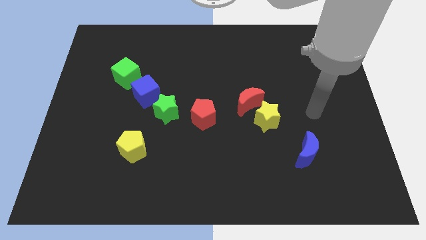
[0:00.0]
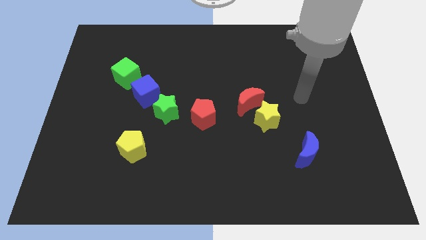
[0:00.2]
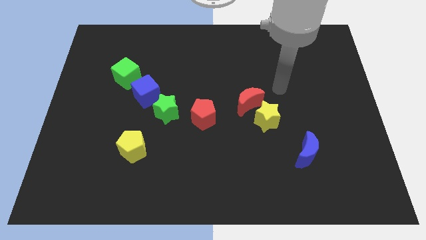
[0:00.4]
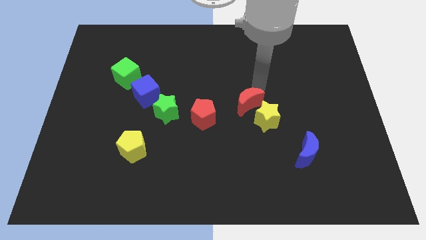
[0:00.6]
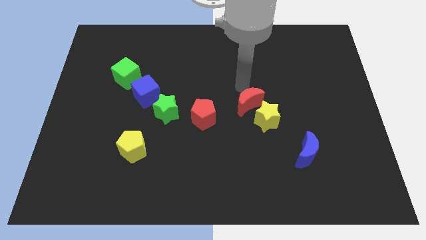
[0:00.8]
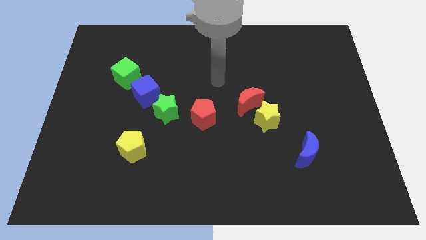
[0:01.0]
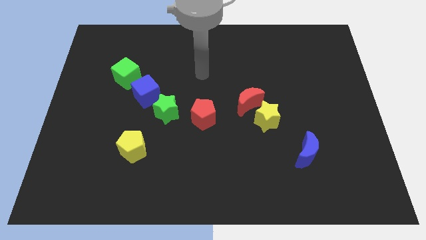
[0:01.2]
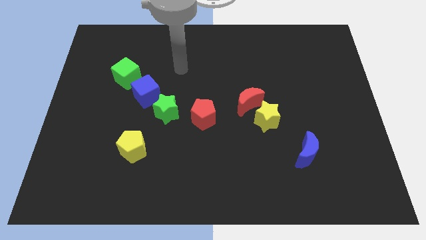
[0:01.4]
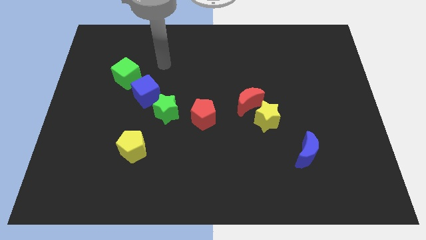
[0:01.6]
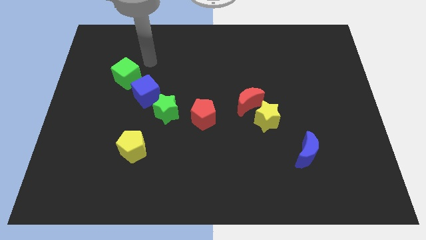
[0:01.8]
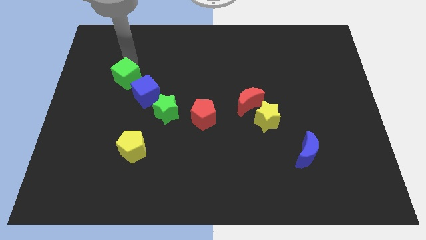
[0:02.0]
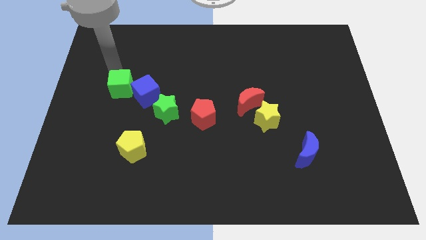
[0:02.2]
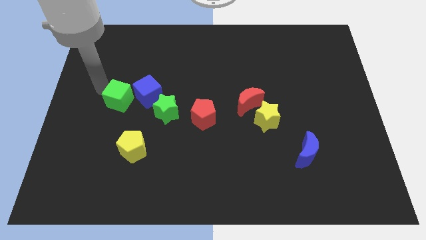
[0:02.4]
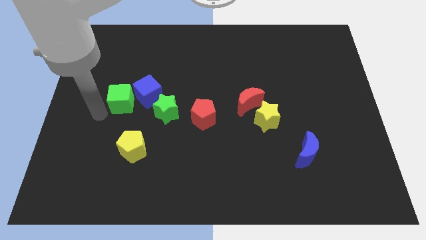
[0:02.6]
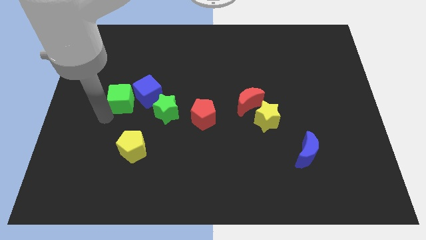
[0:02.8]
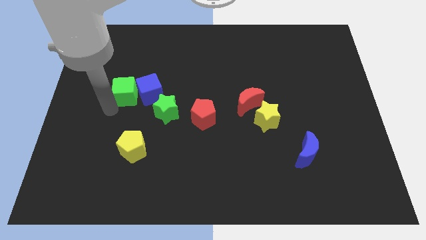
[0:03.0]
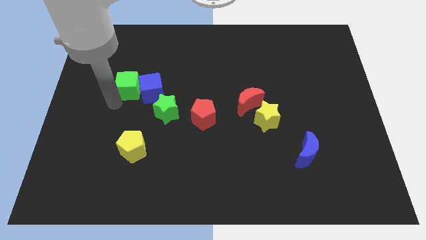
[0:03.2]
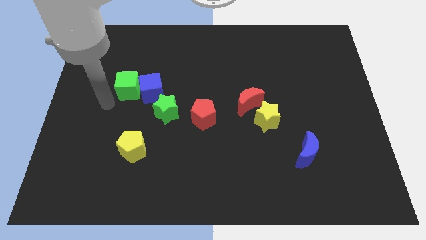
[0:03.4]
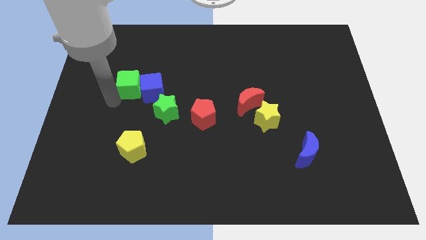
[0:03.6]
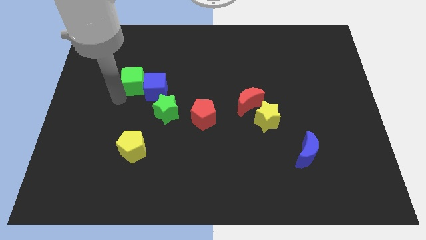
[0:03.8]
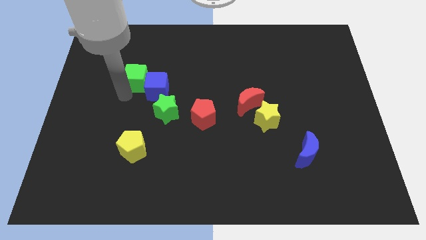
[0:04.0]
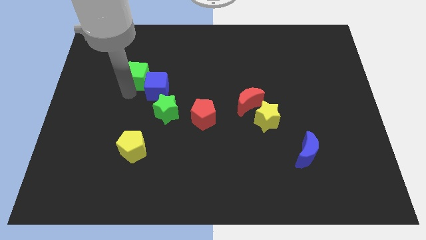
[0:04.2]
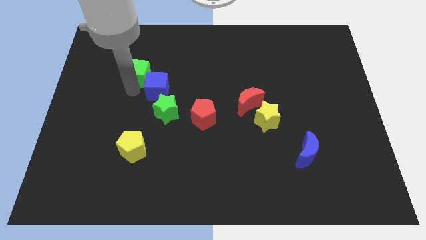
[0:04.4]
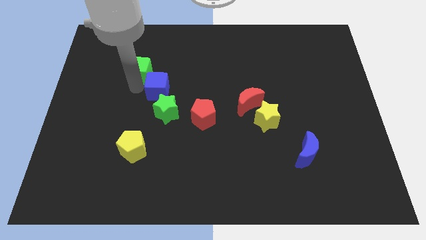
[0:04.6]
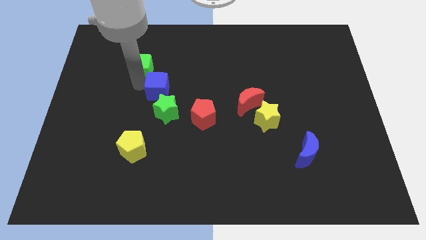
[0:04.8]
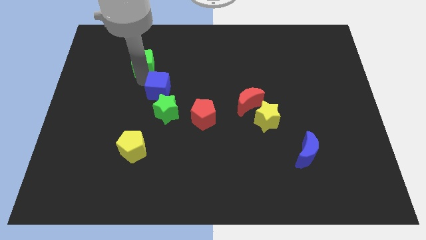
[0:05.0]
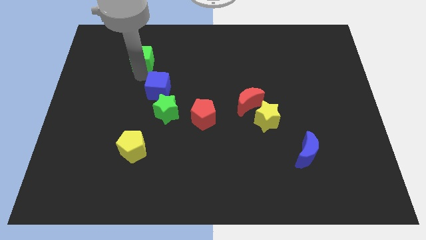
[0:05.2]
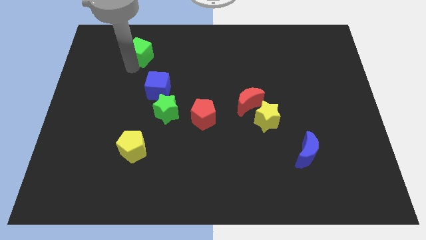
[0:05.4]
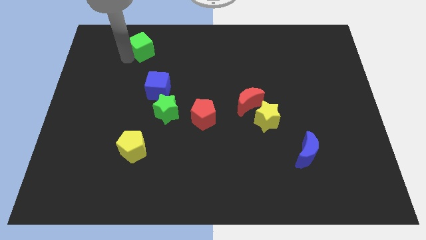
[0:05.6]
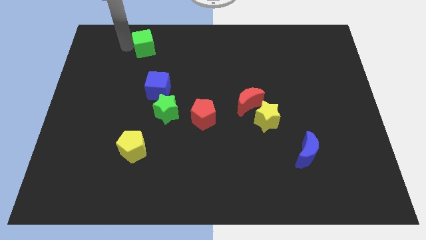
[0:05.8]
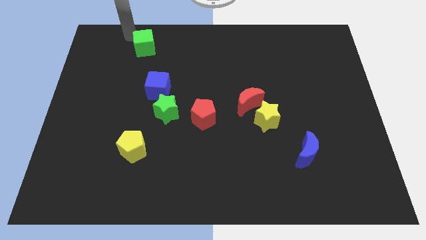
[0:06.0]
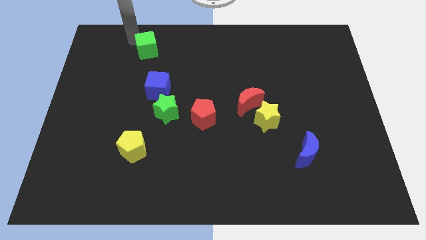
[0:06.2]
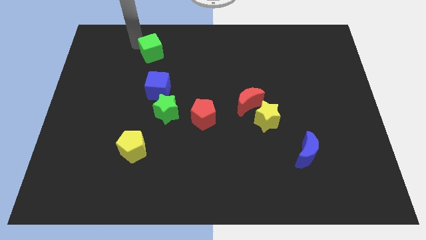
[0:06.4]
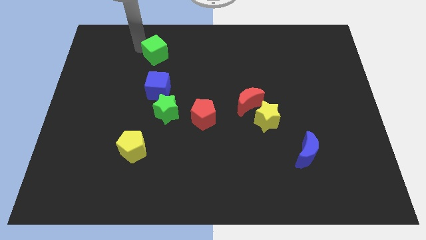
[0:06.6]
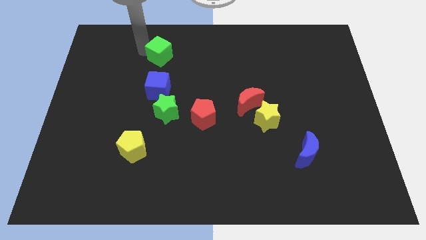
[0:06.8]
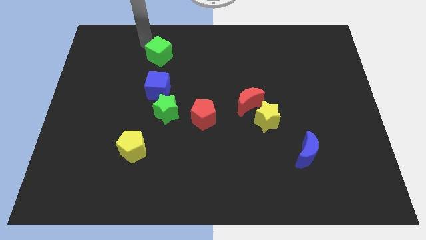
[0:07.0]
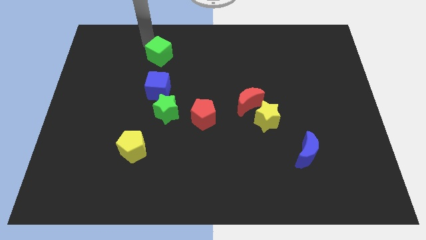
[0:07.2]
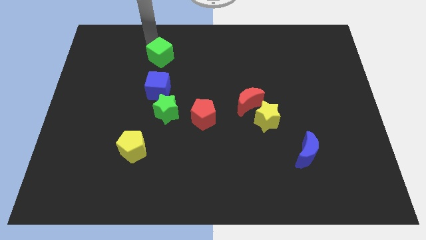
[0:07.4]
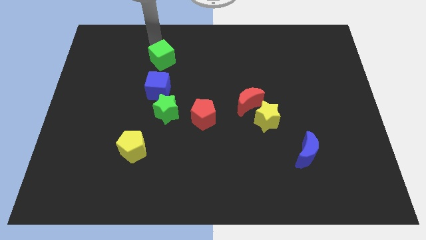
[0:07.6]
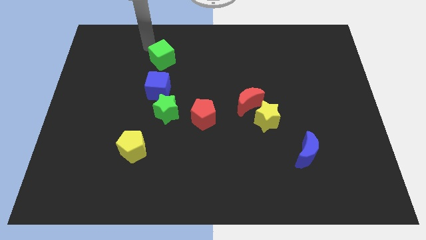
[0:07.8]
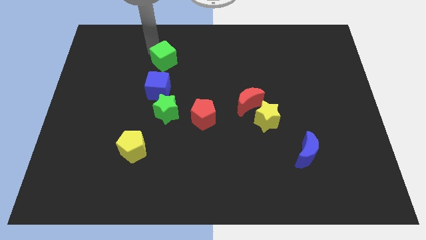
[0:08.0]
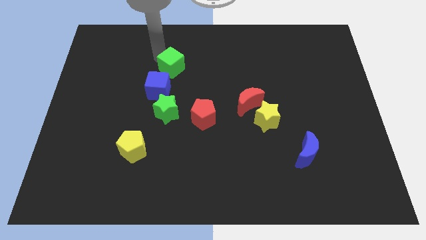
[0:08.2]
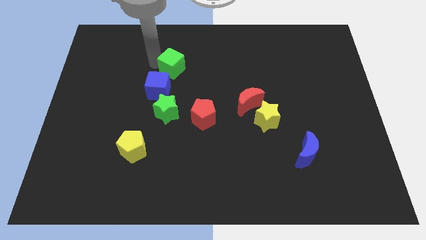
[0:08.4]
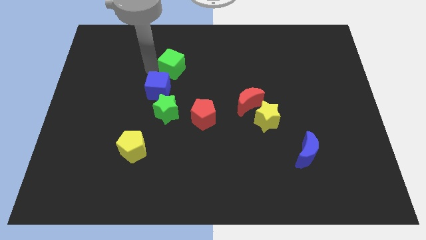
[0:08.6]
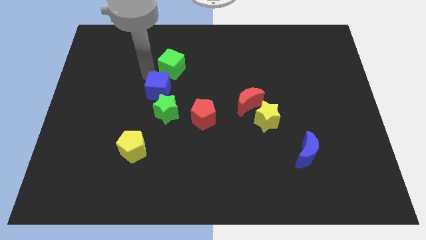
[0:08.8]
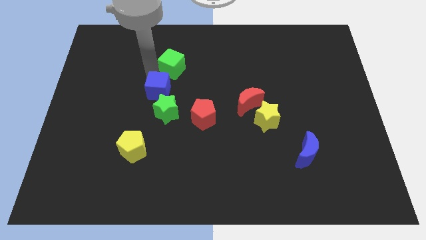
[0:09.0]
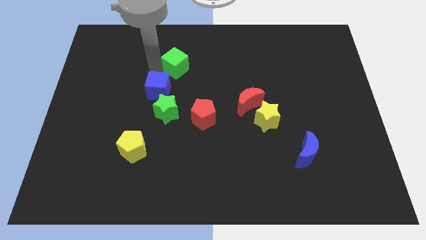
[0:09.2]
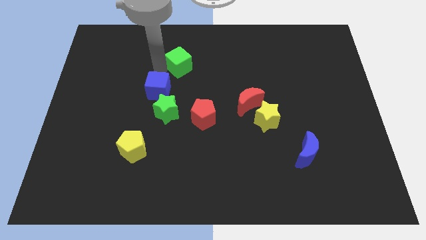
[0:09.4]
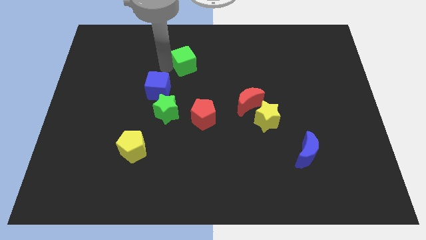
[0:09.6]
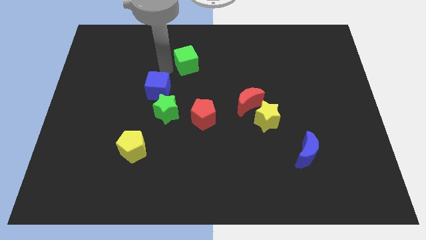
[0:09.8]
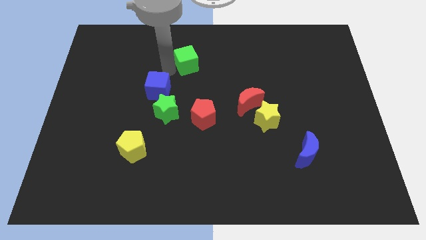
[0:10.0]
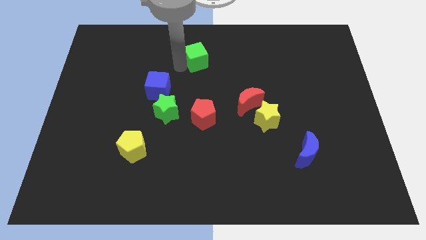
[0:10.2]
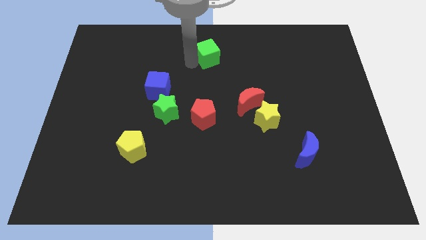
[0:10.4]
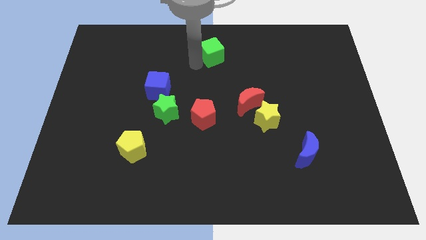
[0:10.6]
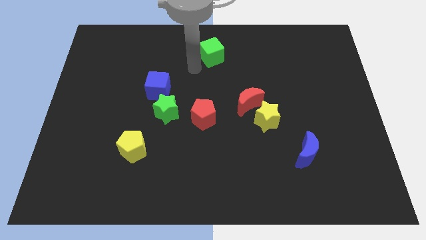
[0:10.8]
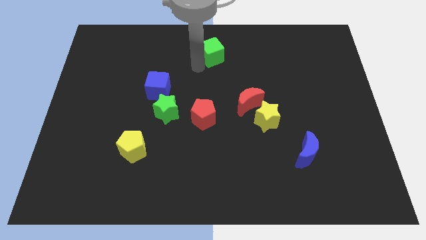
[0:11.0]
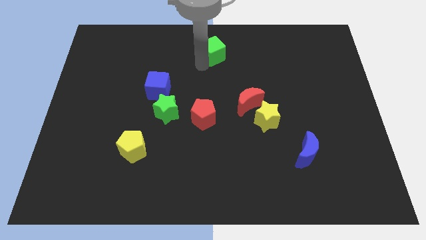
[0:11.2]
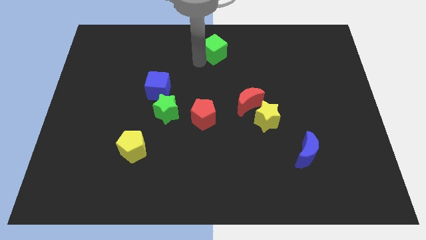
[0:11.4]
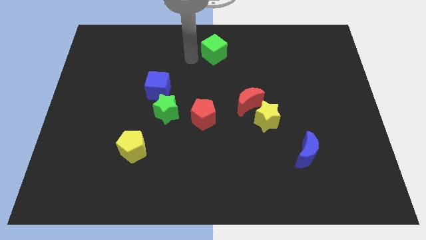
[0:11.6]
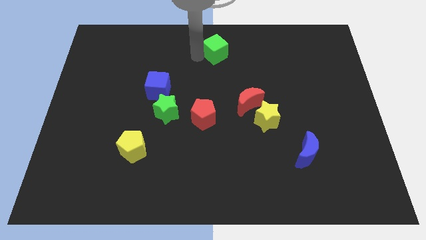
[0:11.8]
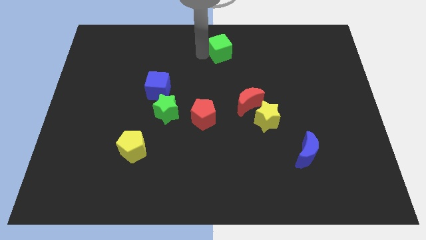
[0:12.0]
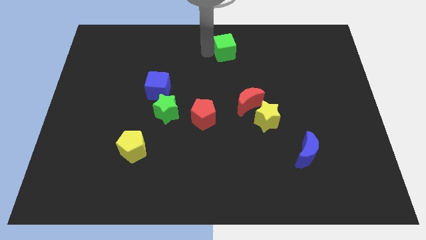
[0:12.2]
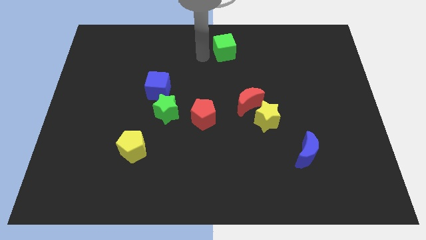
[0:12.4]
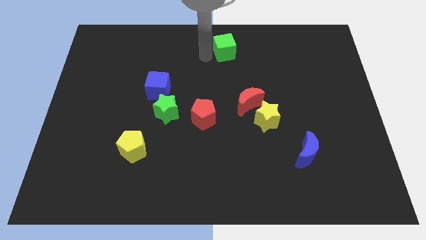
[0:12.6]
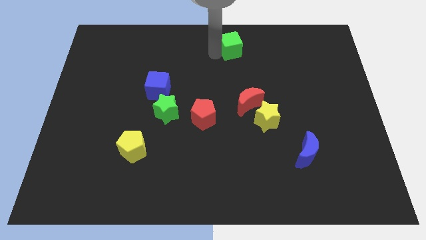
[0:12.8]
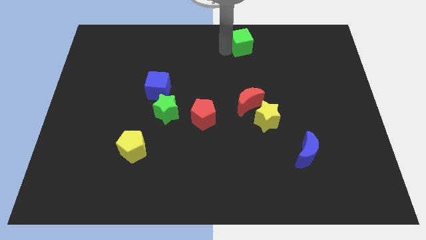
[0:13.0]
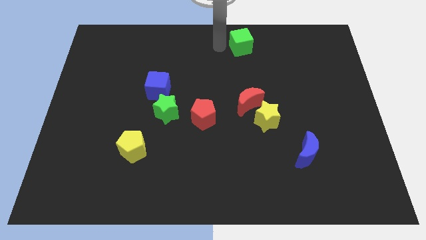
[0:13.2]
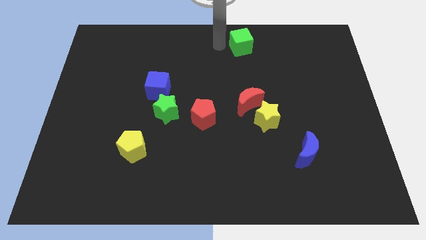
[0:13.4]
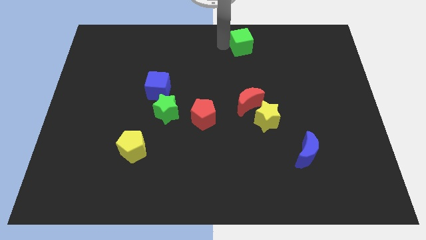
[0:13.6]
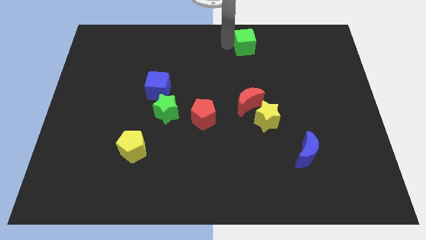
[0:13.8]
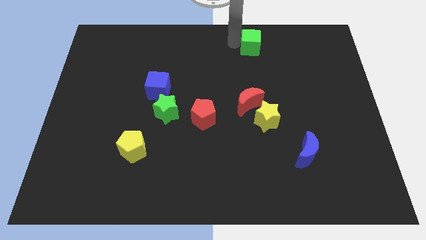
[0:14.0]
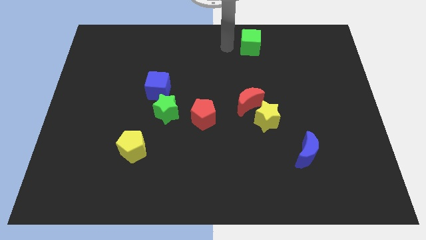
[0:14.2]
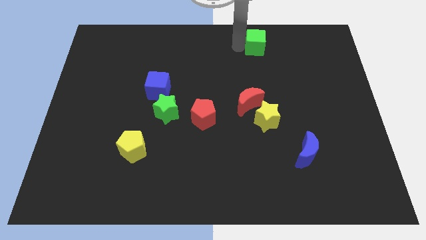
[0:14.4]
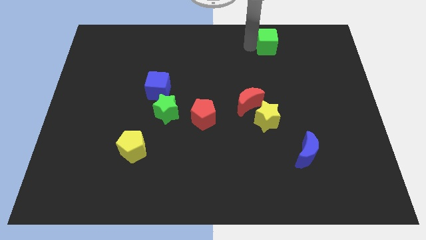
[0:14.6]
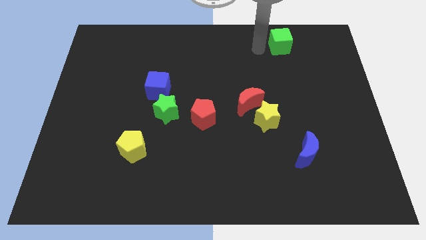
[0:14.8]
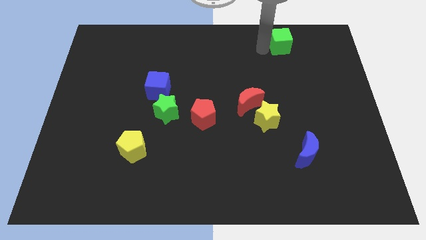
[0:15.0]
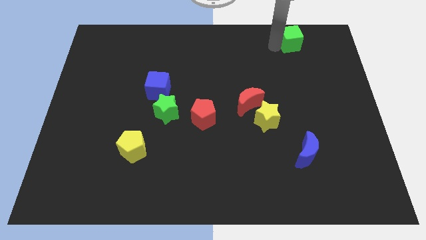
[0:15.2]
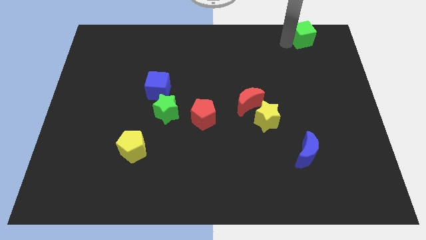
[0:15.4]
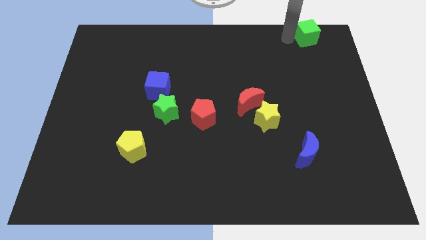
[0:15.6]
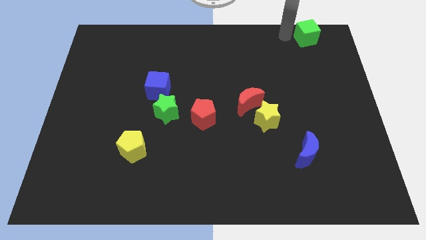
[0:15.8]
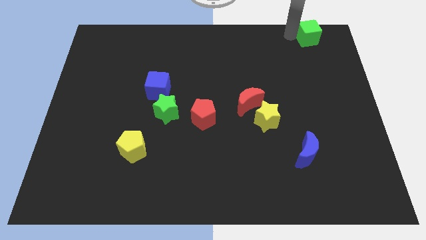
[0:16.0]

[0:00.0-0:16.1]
slide the green cube to the top right of the board
